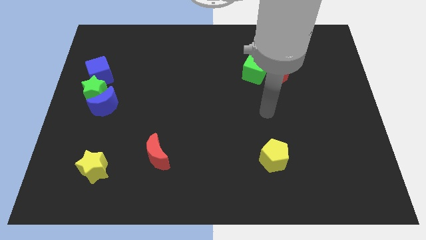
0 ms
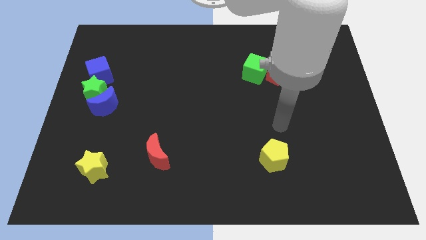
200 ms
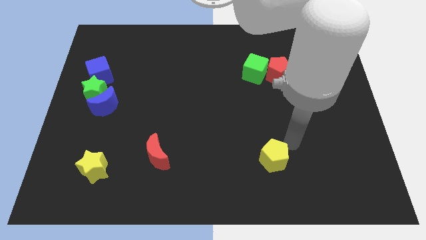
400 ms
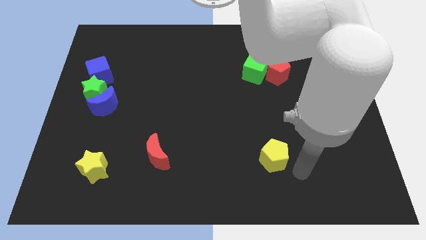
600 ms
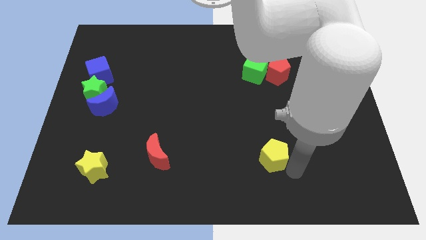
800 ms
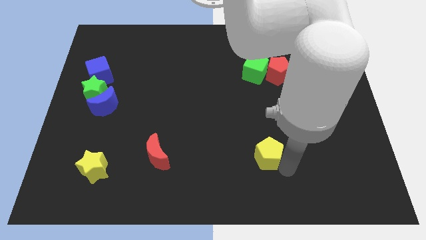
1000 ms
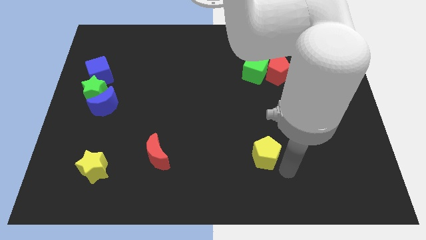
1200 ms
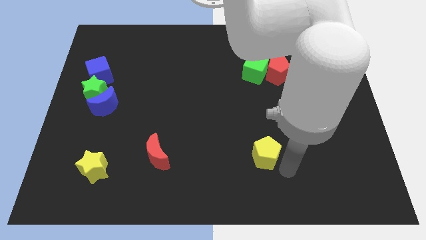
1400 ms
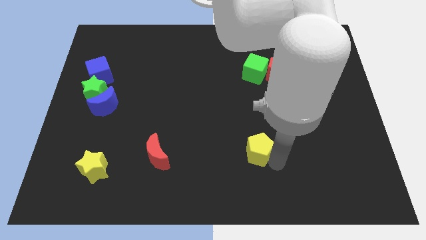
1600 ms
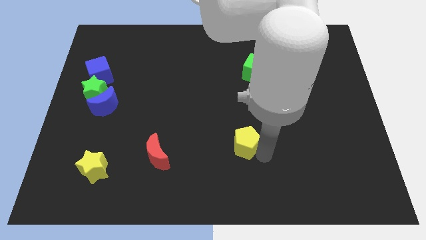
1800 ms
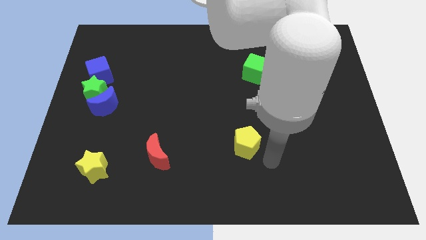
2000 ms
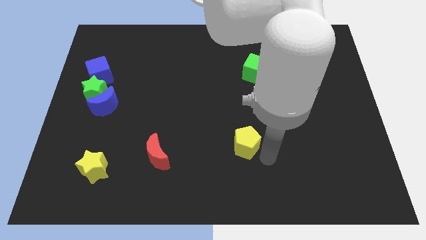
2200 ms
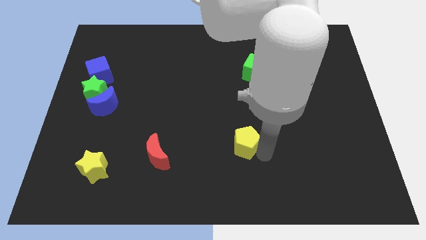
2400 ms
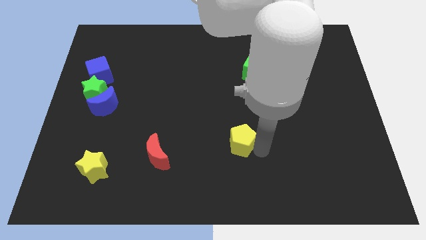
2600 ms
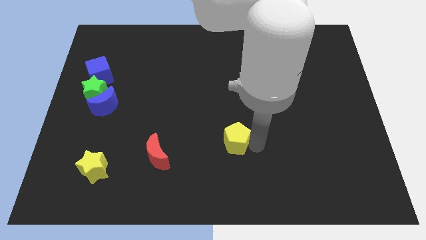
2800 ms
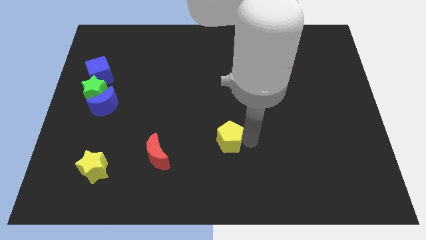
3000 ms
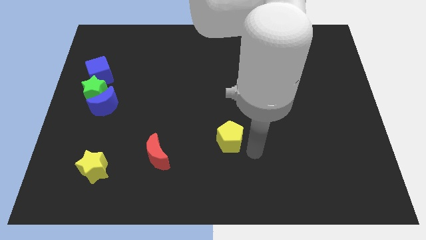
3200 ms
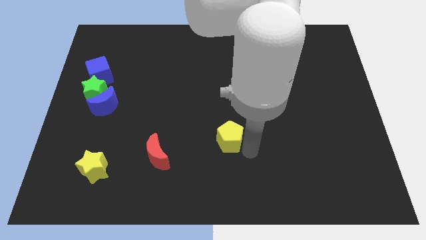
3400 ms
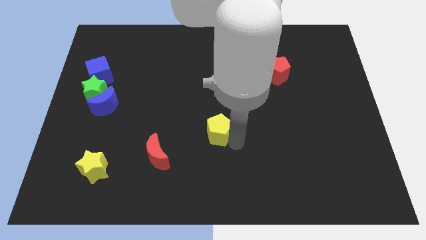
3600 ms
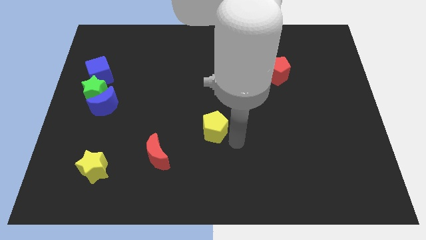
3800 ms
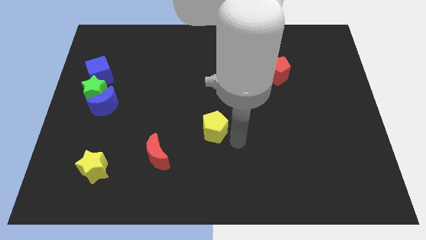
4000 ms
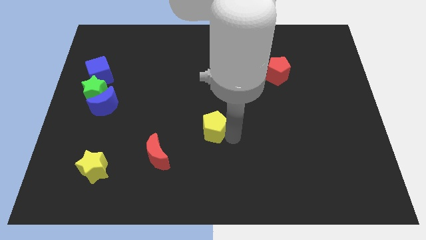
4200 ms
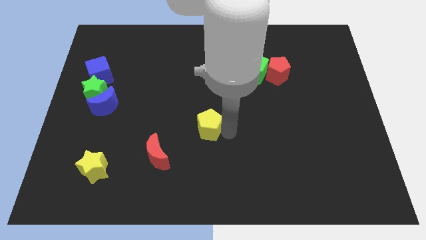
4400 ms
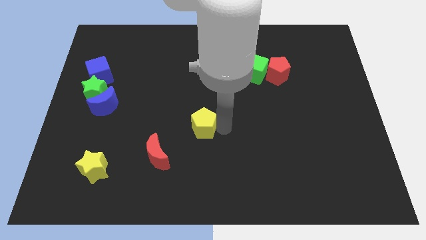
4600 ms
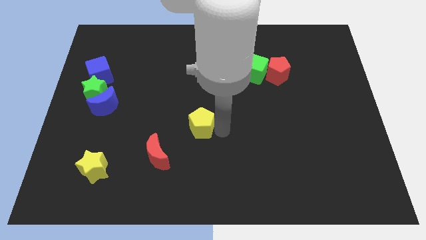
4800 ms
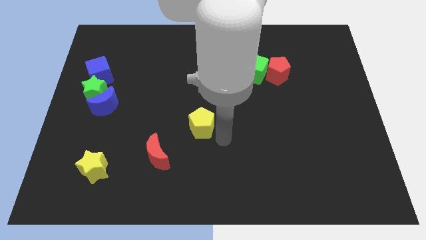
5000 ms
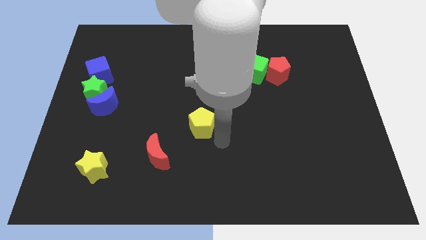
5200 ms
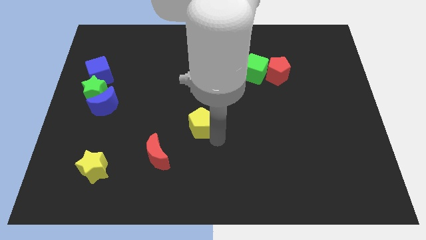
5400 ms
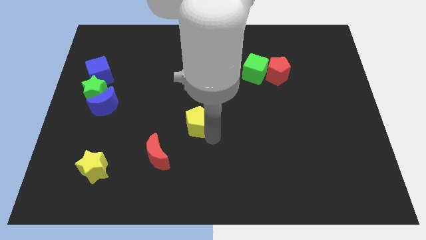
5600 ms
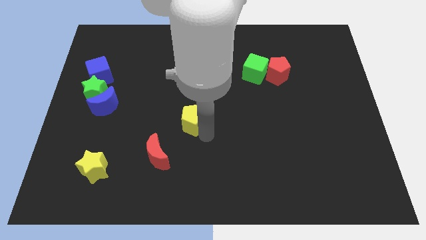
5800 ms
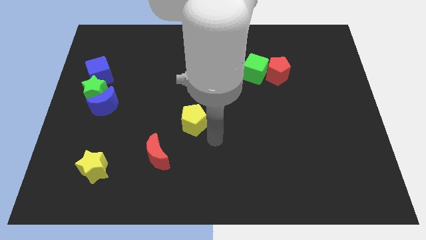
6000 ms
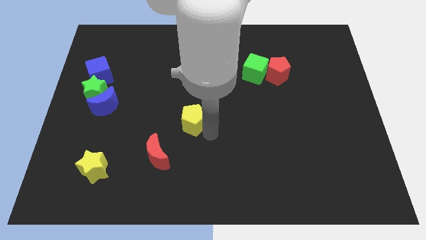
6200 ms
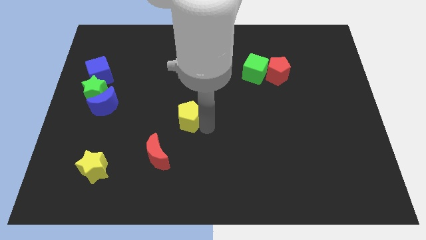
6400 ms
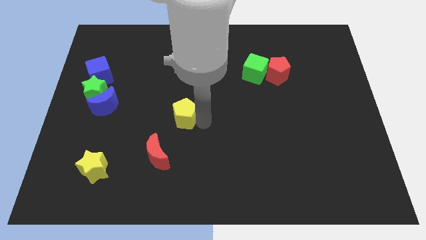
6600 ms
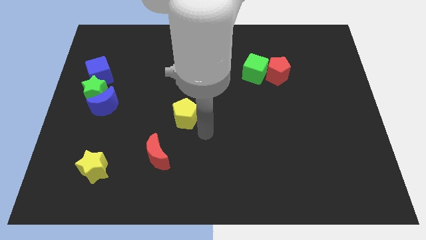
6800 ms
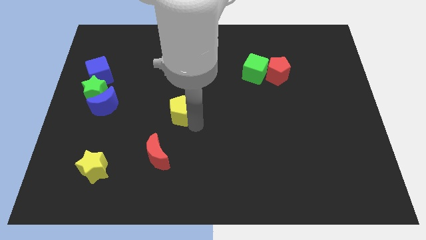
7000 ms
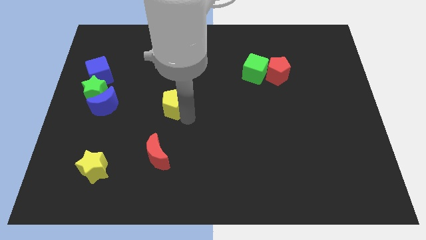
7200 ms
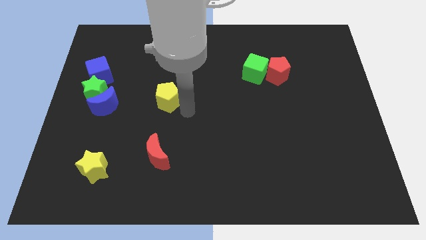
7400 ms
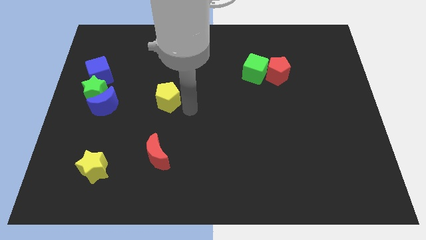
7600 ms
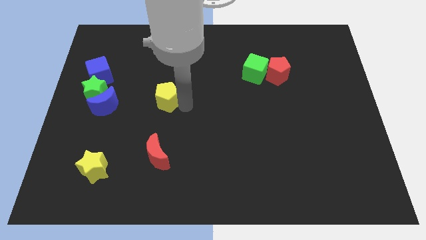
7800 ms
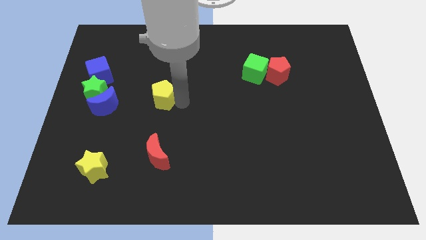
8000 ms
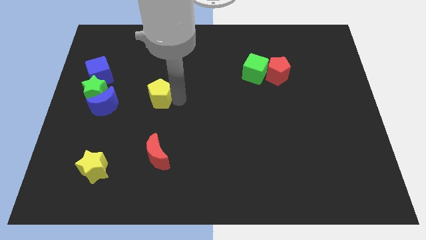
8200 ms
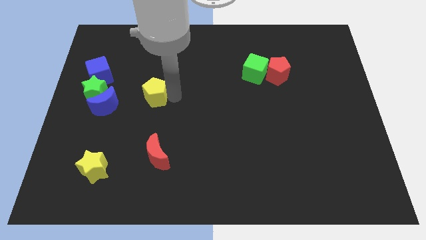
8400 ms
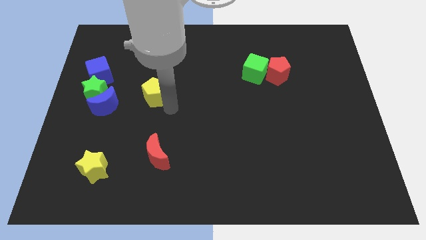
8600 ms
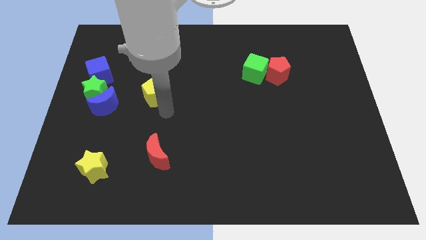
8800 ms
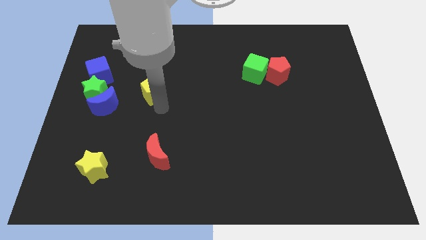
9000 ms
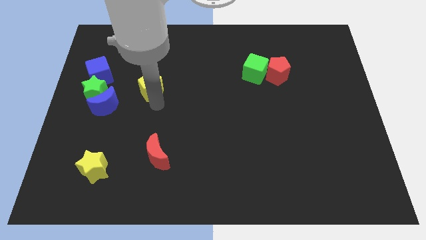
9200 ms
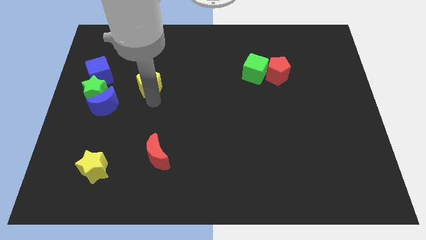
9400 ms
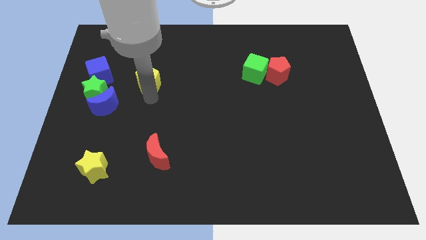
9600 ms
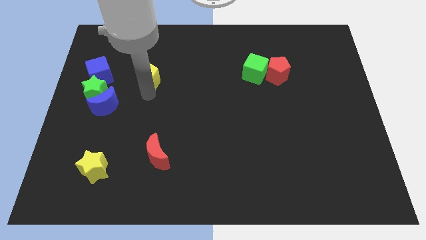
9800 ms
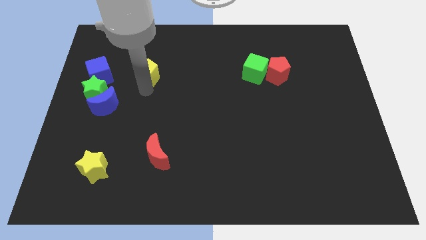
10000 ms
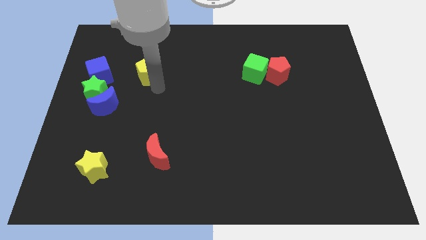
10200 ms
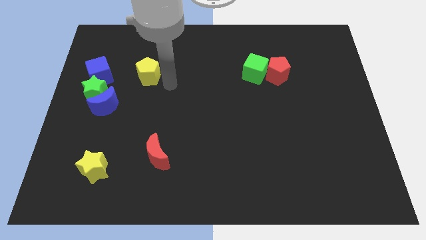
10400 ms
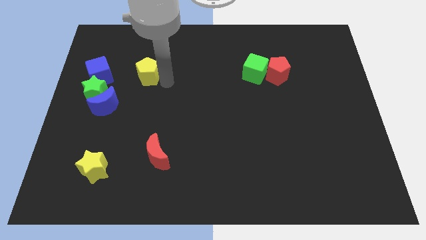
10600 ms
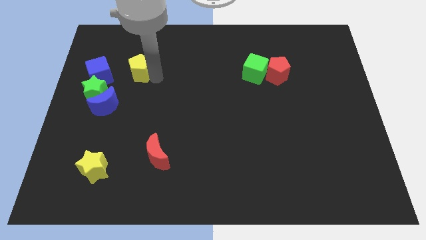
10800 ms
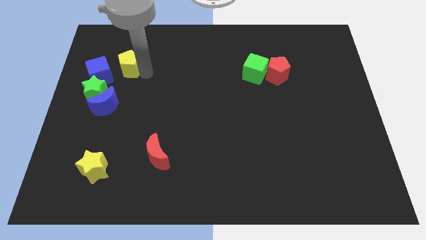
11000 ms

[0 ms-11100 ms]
put the yellow pentagon above the blue moon

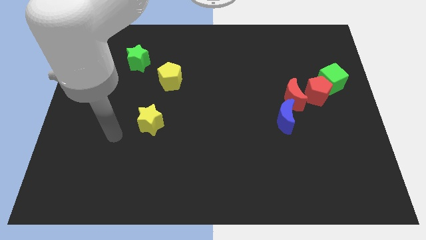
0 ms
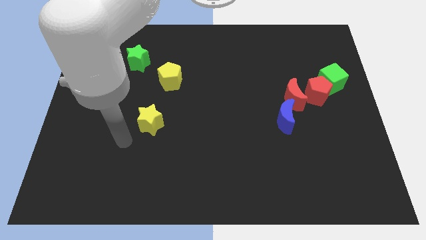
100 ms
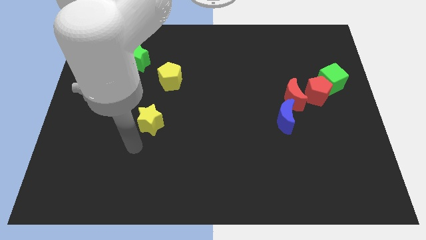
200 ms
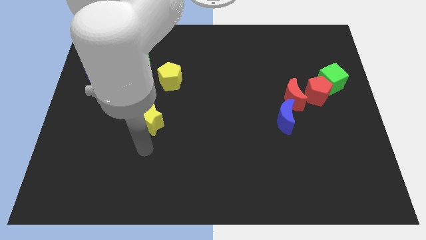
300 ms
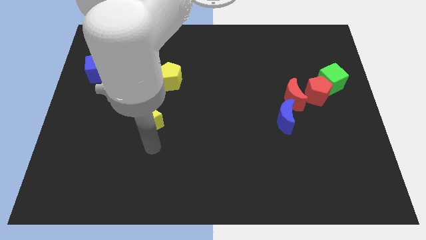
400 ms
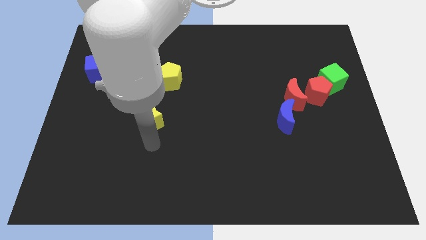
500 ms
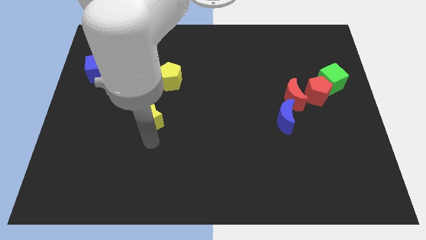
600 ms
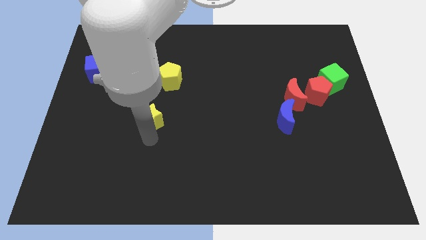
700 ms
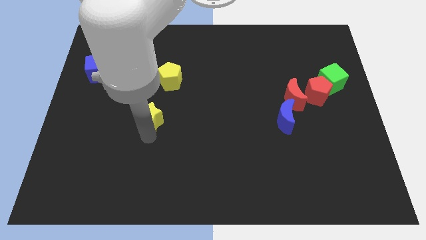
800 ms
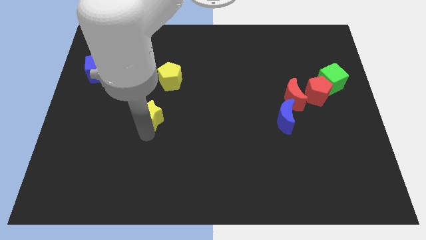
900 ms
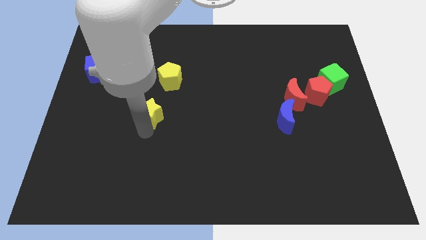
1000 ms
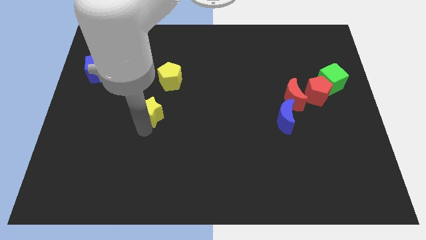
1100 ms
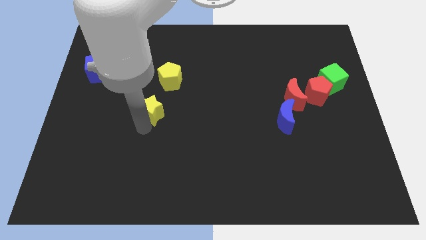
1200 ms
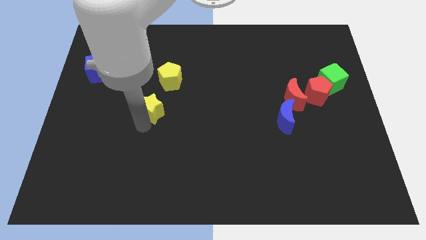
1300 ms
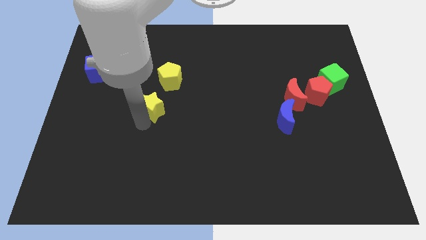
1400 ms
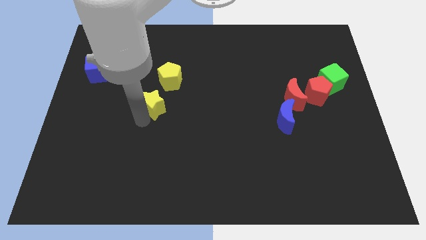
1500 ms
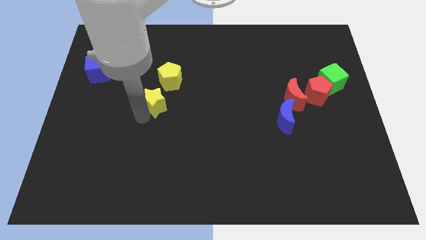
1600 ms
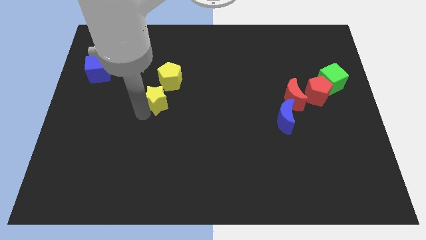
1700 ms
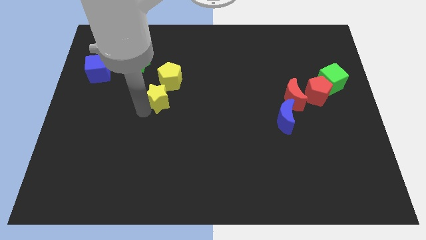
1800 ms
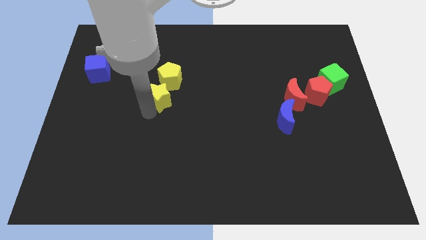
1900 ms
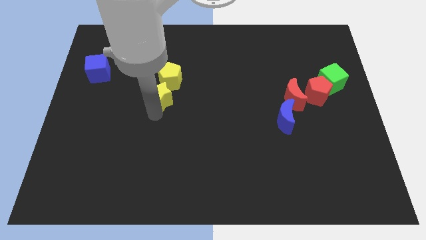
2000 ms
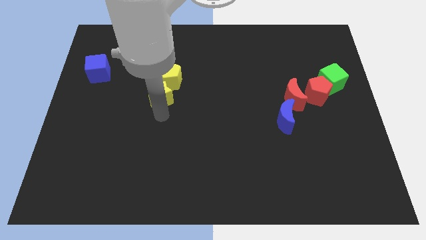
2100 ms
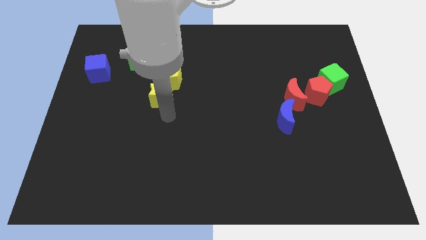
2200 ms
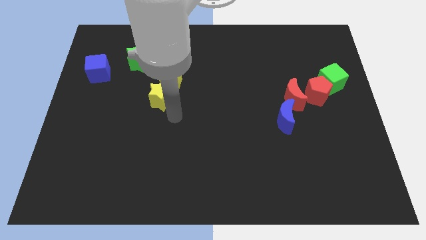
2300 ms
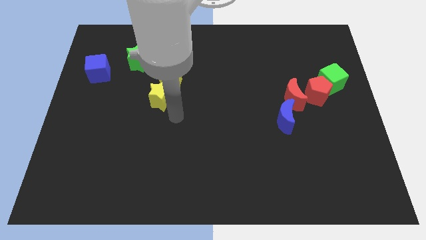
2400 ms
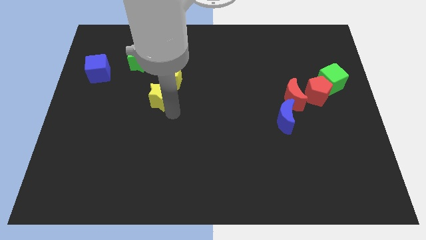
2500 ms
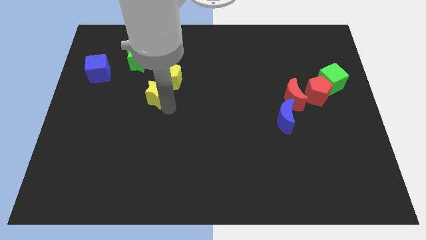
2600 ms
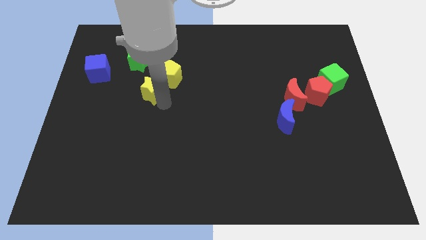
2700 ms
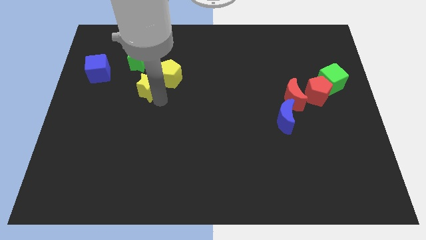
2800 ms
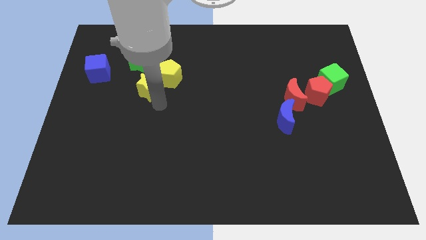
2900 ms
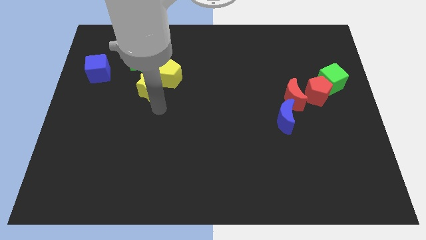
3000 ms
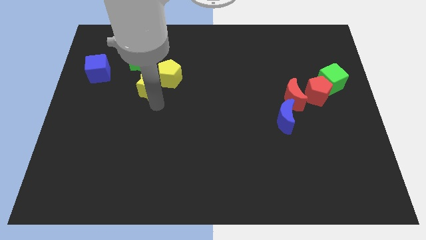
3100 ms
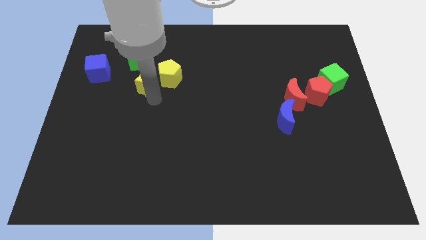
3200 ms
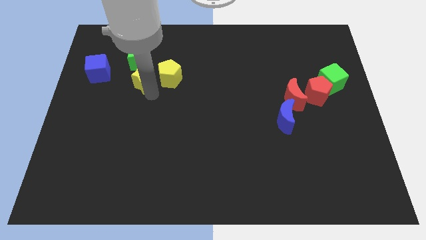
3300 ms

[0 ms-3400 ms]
put the yellow star to the right of the blue cube

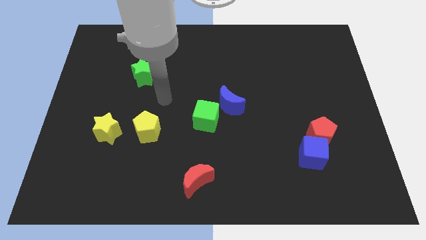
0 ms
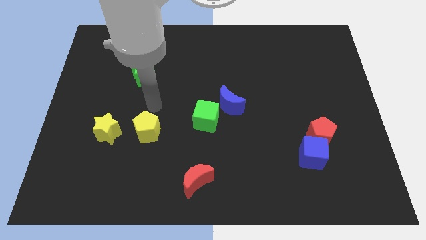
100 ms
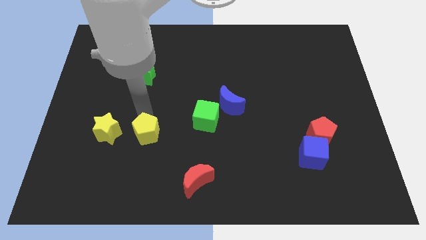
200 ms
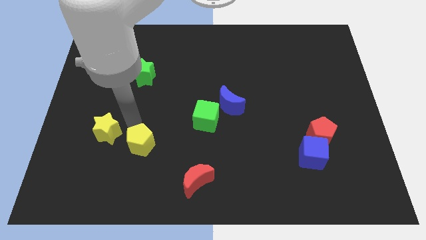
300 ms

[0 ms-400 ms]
put the yellow star to the top left side of the yellow pentagon
